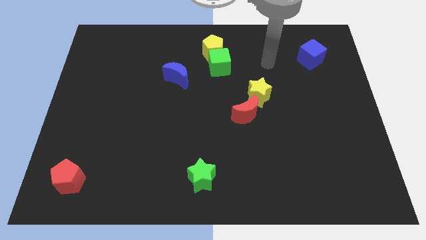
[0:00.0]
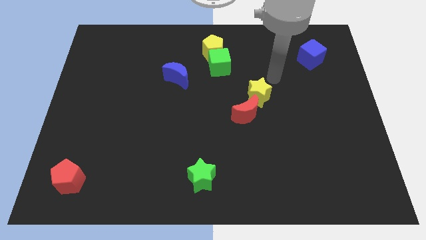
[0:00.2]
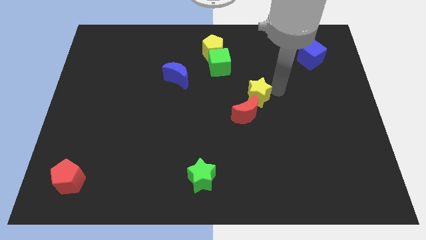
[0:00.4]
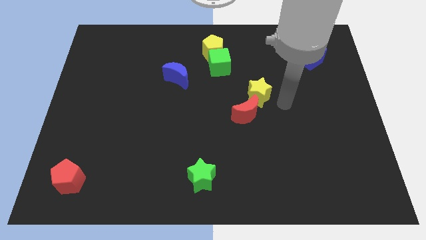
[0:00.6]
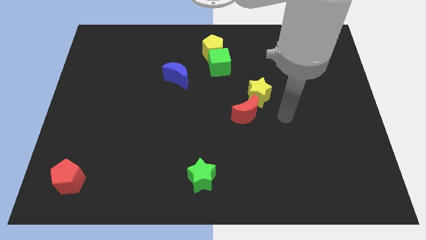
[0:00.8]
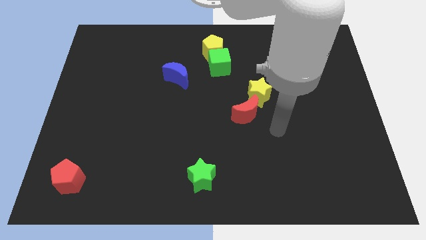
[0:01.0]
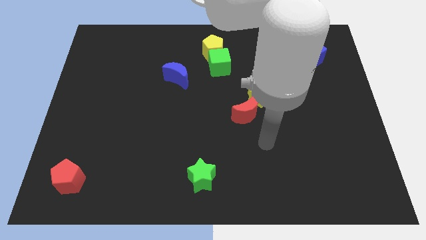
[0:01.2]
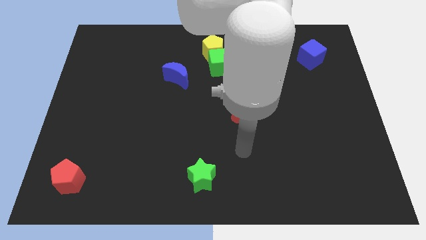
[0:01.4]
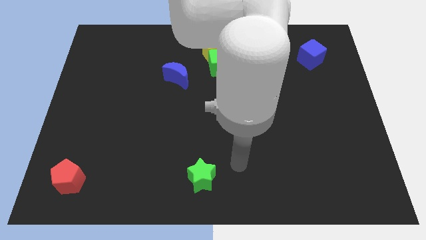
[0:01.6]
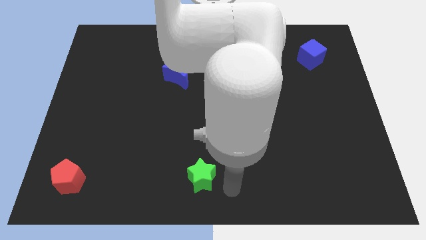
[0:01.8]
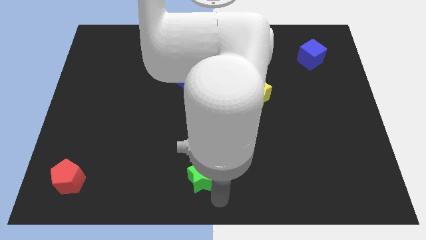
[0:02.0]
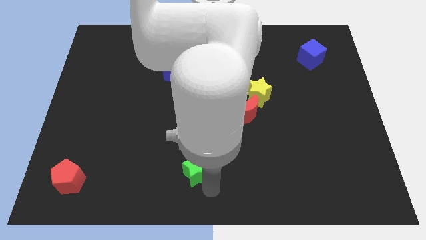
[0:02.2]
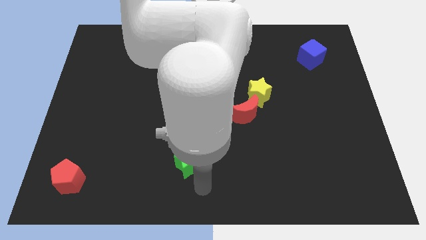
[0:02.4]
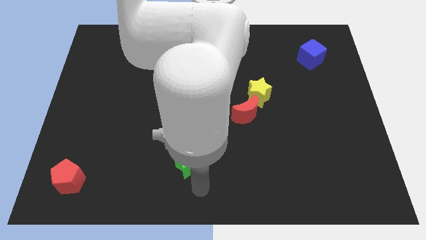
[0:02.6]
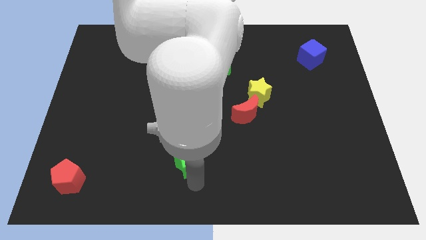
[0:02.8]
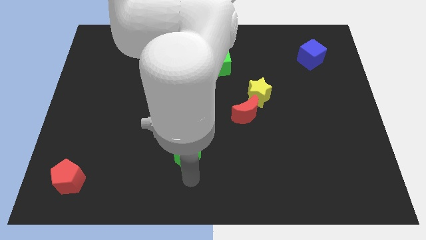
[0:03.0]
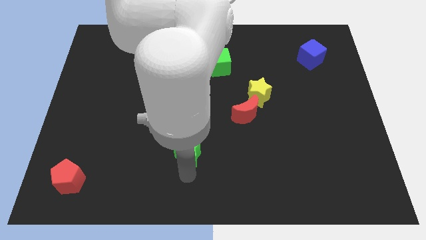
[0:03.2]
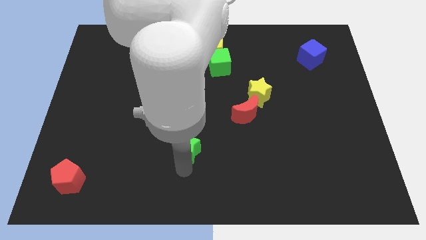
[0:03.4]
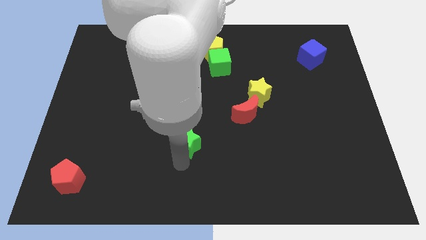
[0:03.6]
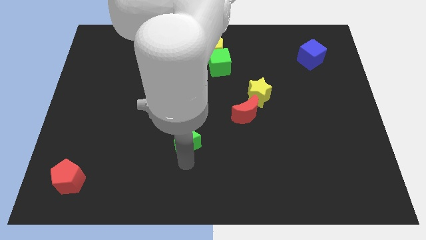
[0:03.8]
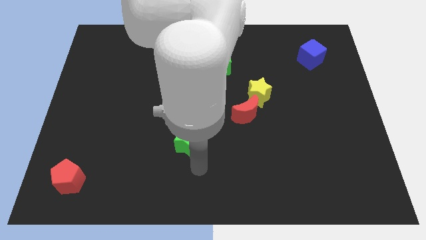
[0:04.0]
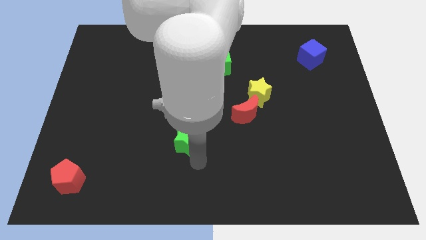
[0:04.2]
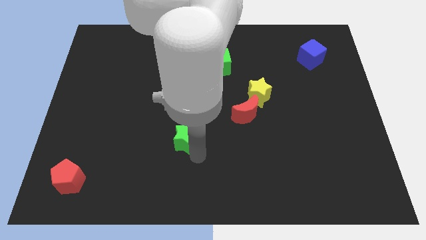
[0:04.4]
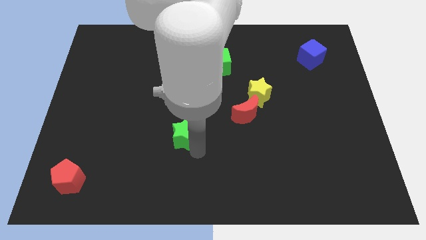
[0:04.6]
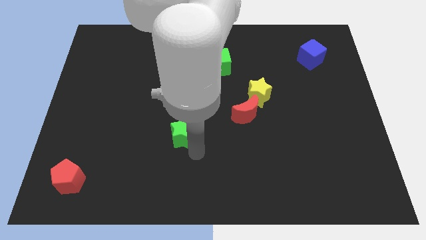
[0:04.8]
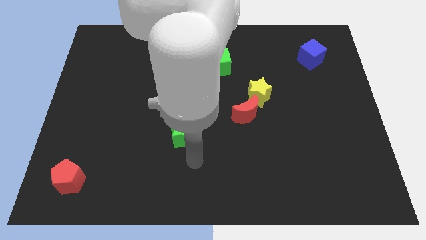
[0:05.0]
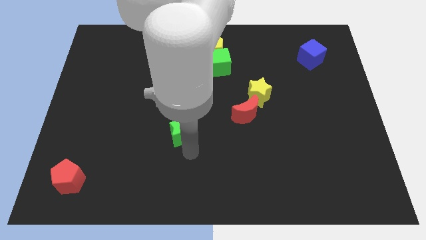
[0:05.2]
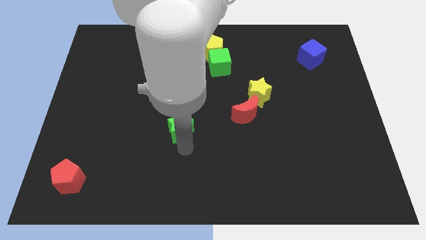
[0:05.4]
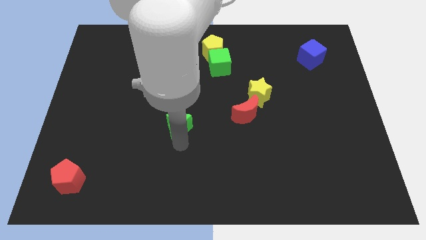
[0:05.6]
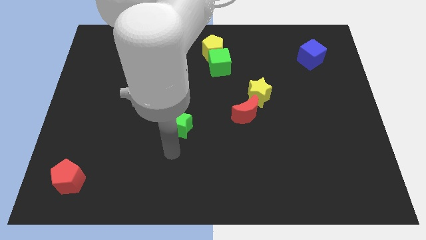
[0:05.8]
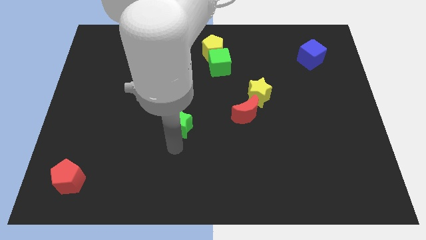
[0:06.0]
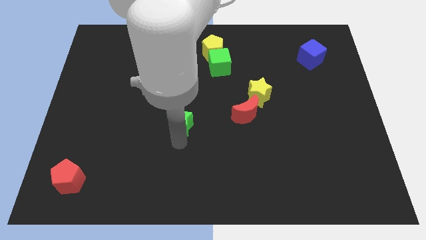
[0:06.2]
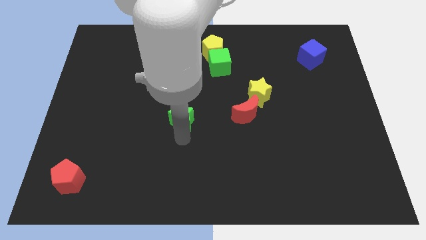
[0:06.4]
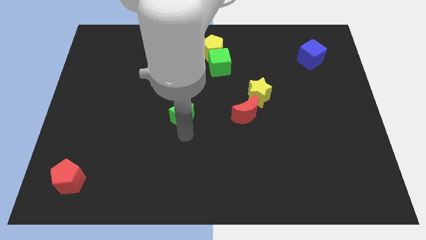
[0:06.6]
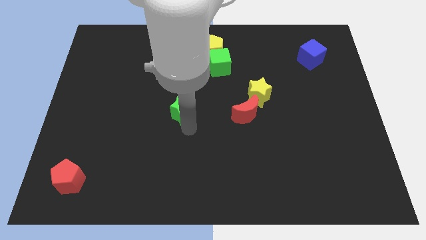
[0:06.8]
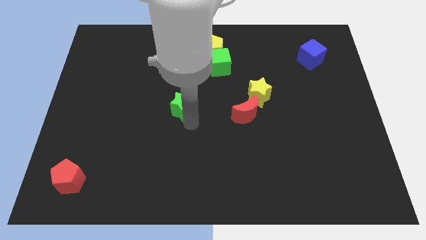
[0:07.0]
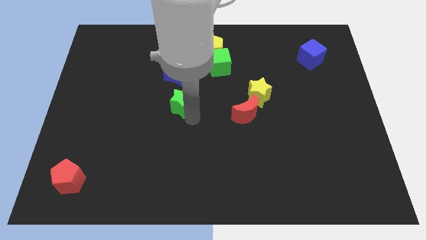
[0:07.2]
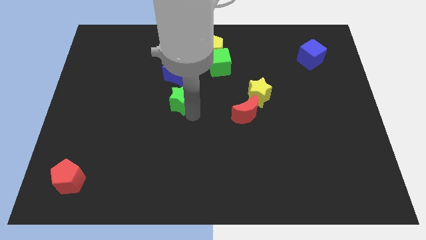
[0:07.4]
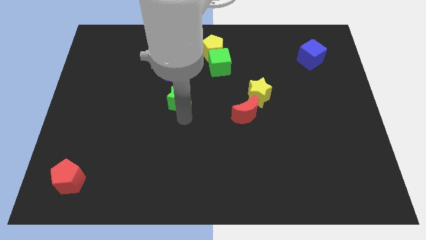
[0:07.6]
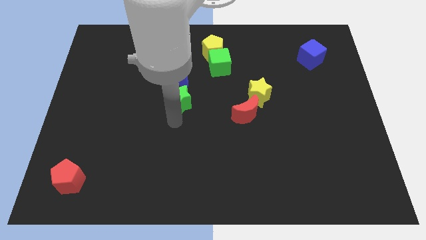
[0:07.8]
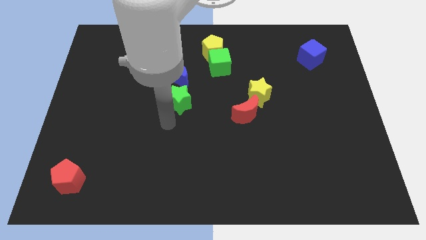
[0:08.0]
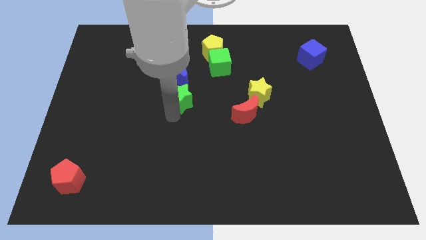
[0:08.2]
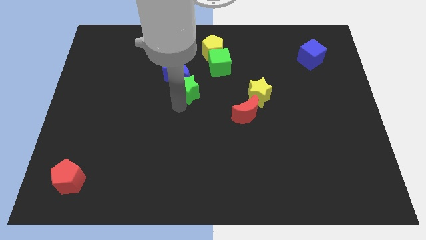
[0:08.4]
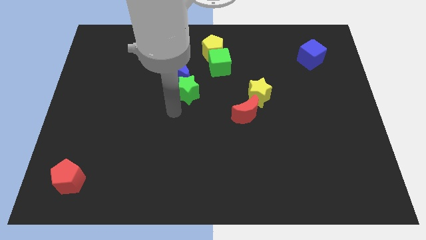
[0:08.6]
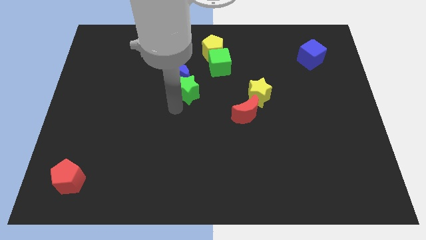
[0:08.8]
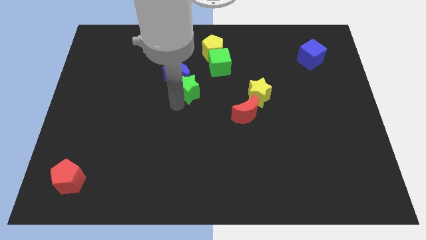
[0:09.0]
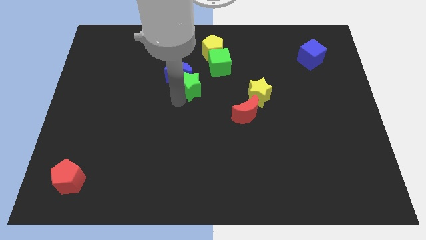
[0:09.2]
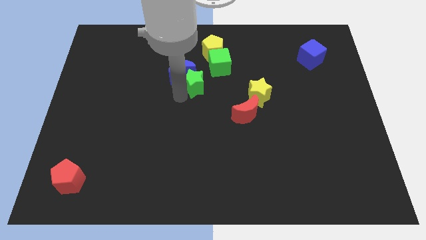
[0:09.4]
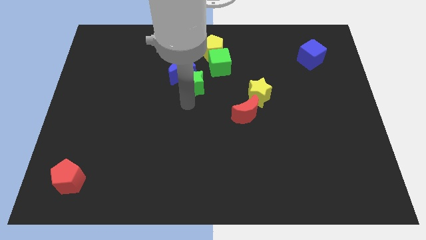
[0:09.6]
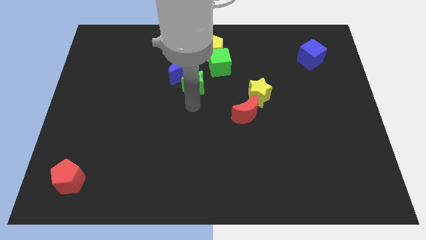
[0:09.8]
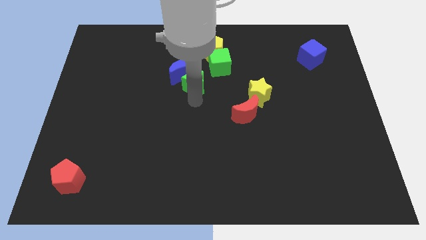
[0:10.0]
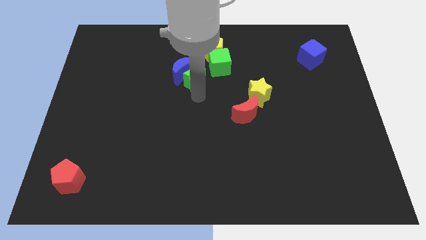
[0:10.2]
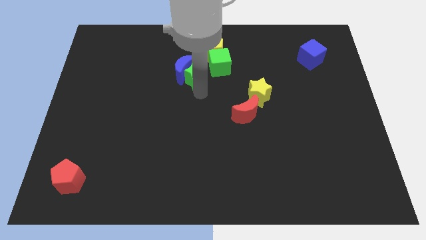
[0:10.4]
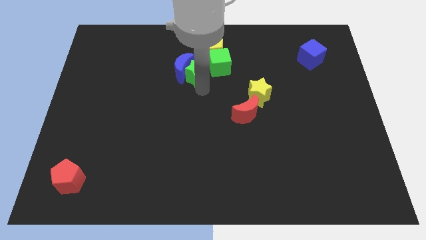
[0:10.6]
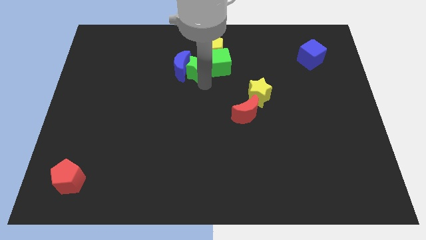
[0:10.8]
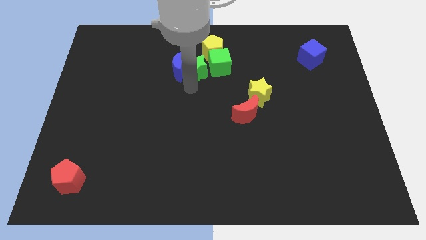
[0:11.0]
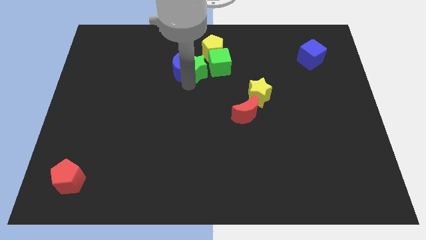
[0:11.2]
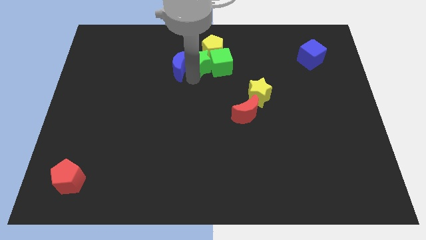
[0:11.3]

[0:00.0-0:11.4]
push the green star to the yellow pentagon

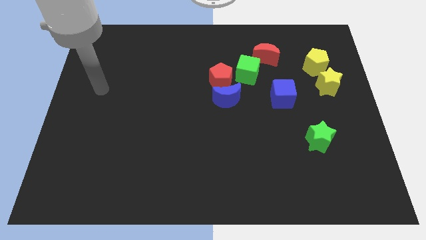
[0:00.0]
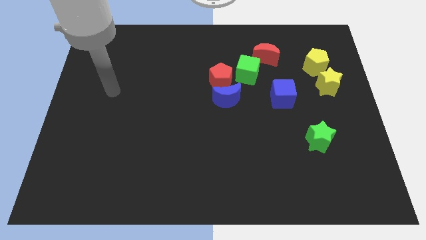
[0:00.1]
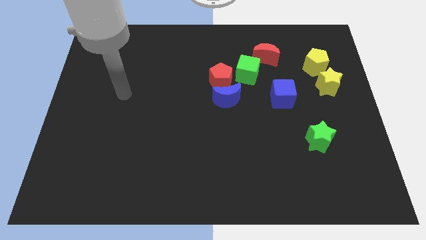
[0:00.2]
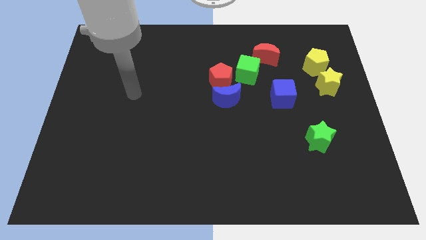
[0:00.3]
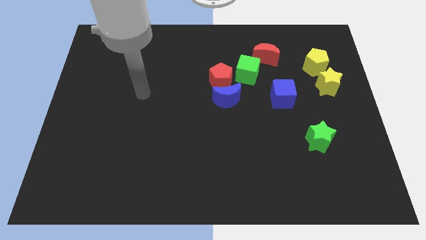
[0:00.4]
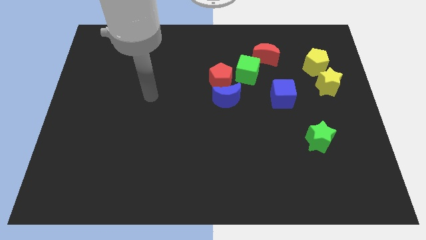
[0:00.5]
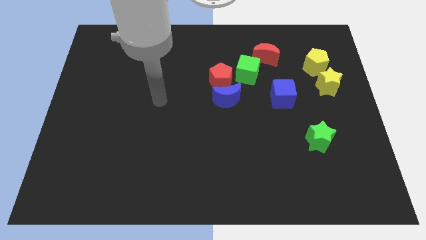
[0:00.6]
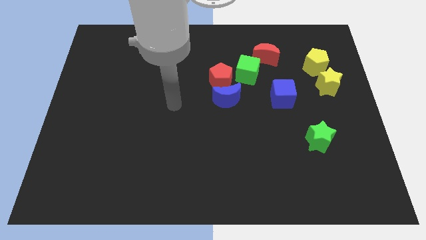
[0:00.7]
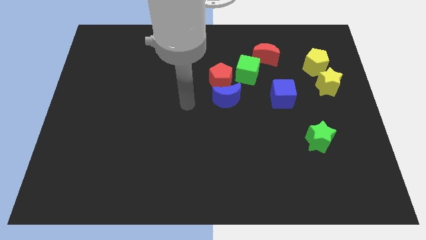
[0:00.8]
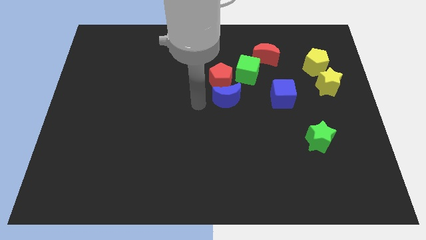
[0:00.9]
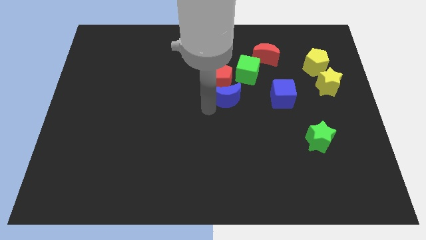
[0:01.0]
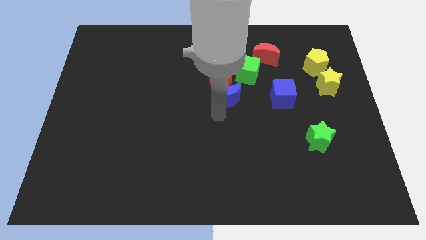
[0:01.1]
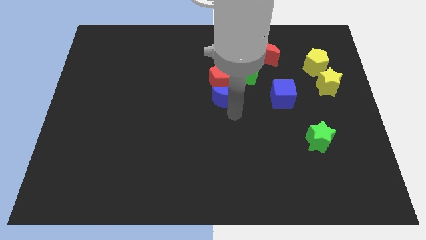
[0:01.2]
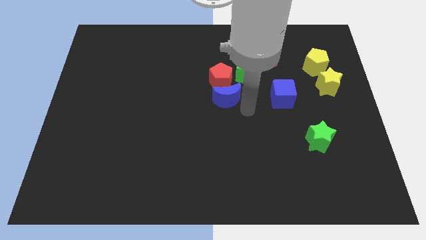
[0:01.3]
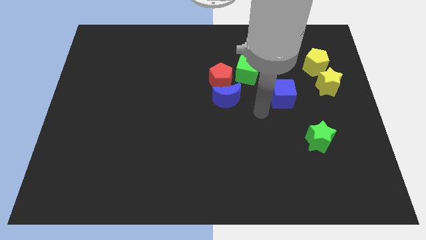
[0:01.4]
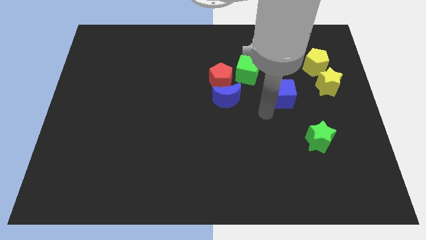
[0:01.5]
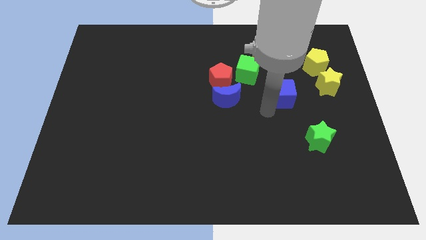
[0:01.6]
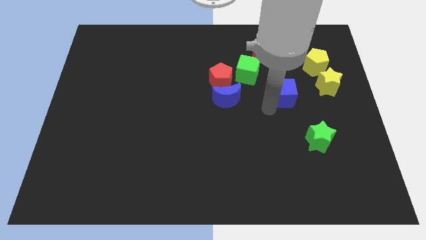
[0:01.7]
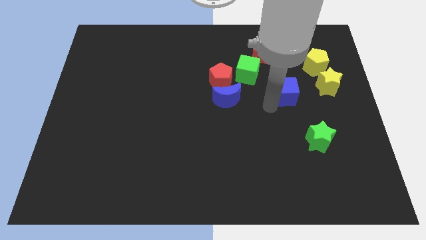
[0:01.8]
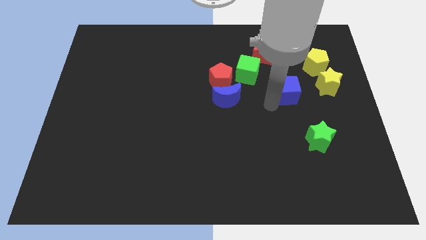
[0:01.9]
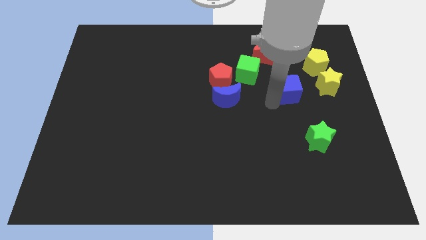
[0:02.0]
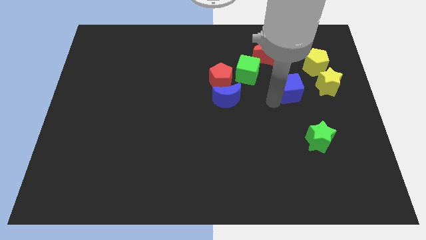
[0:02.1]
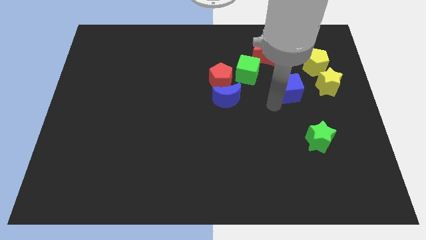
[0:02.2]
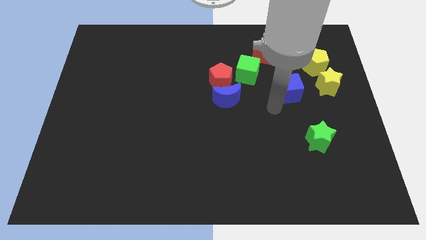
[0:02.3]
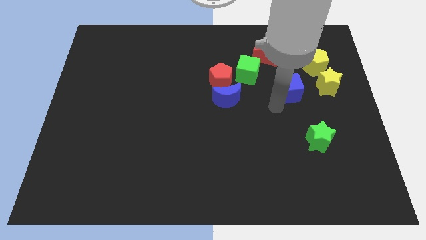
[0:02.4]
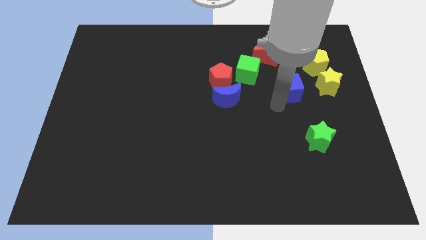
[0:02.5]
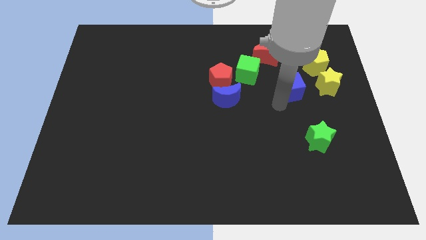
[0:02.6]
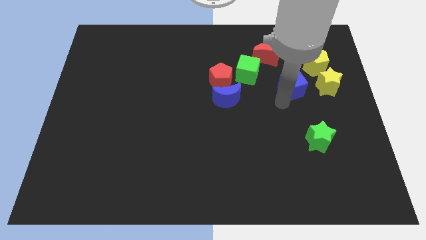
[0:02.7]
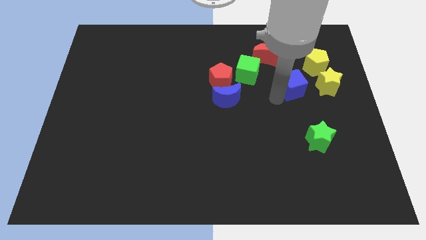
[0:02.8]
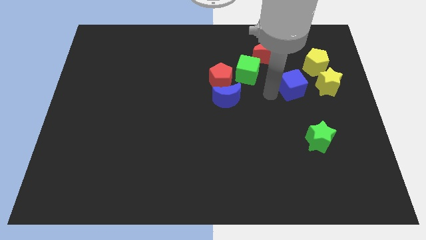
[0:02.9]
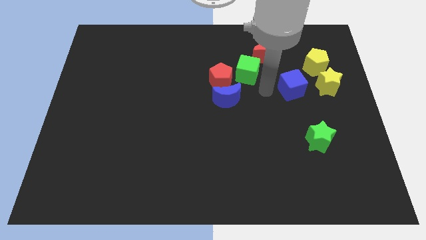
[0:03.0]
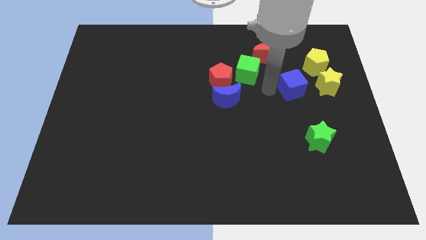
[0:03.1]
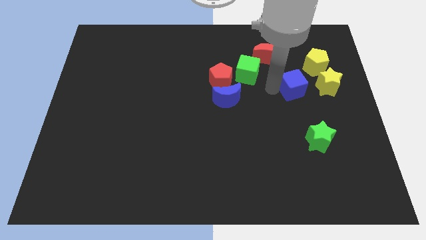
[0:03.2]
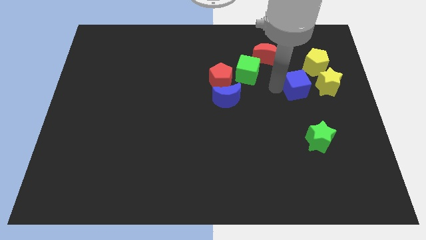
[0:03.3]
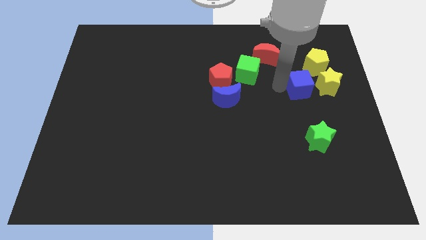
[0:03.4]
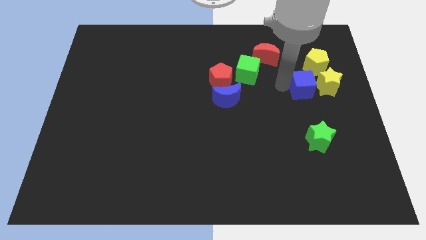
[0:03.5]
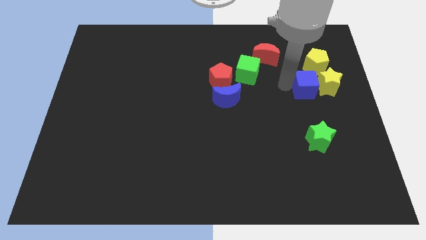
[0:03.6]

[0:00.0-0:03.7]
push the blue cube to the yellow star
